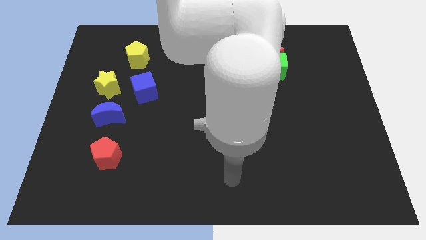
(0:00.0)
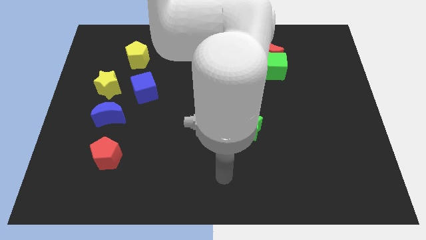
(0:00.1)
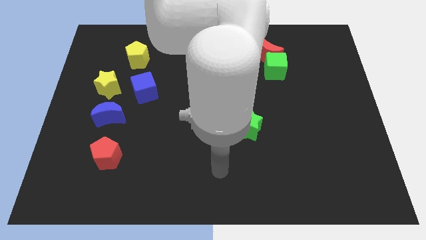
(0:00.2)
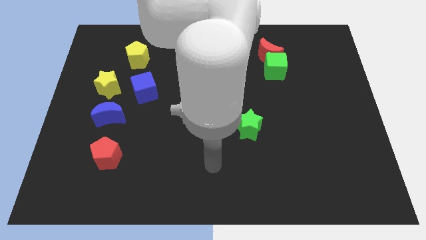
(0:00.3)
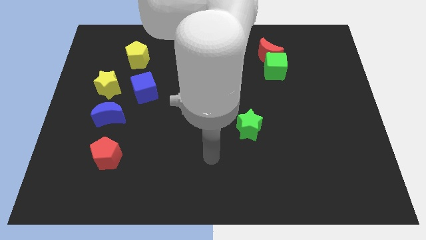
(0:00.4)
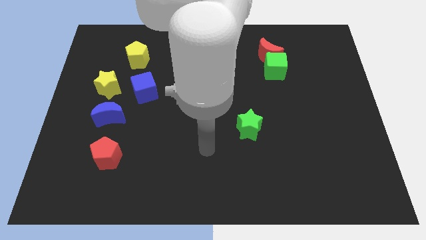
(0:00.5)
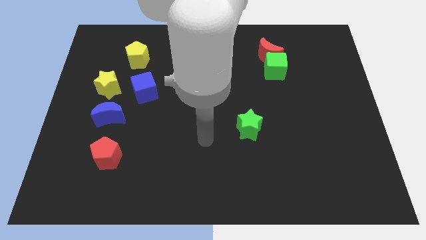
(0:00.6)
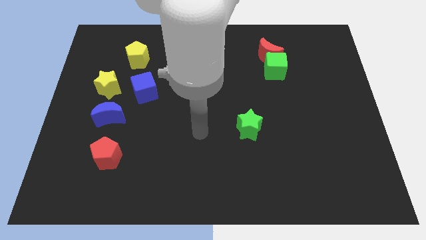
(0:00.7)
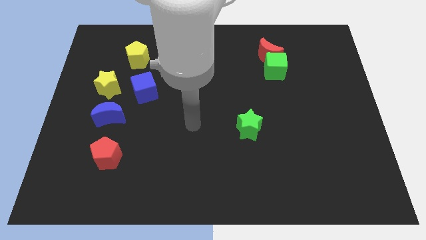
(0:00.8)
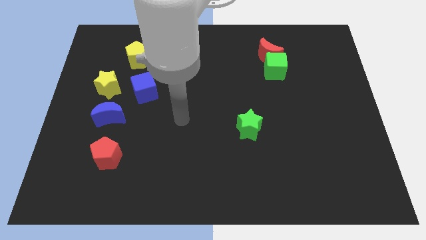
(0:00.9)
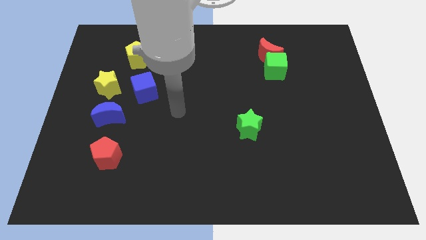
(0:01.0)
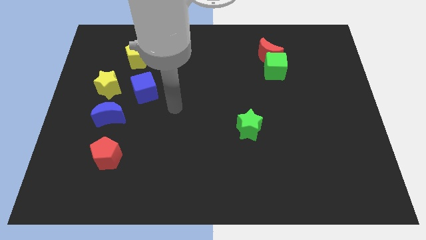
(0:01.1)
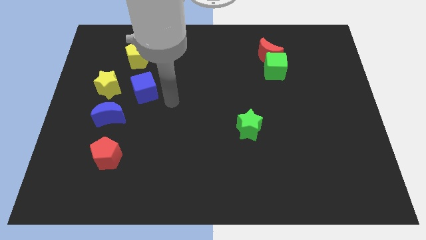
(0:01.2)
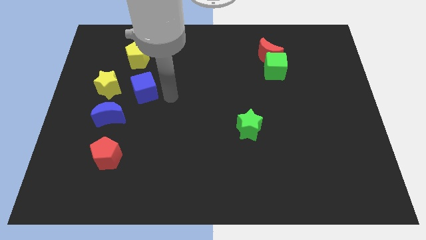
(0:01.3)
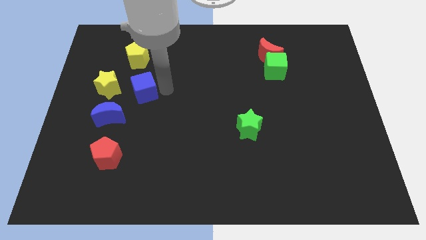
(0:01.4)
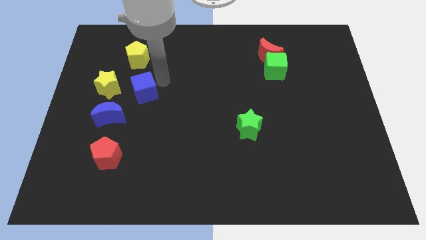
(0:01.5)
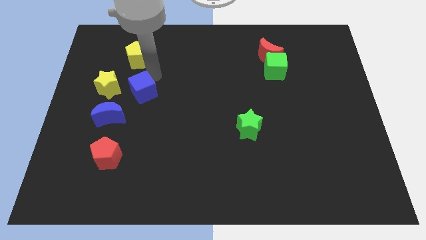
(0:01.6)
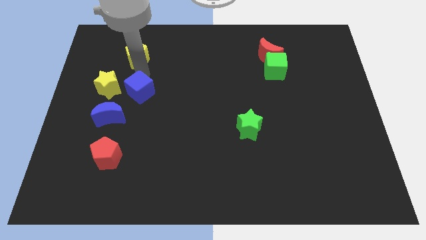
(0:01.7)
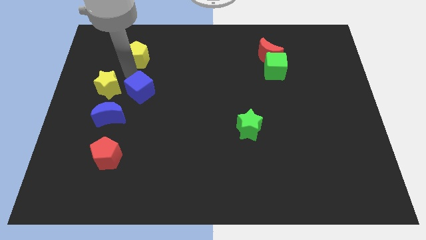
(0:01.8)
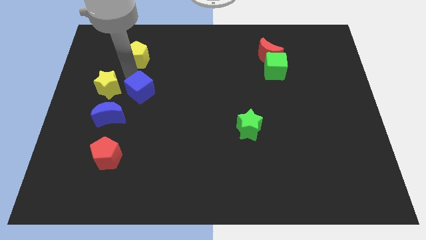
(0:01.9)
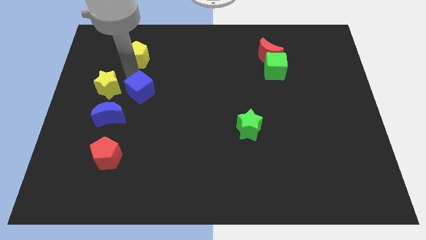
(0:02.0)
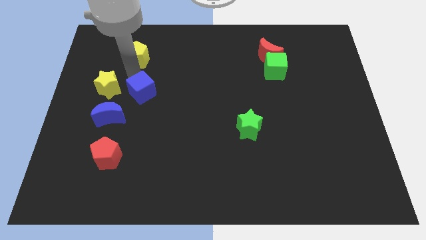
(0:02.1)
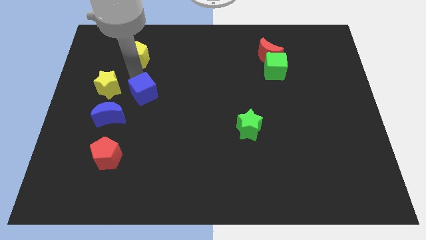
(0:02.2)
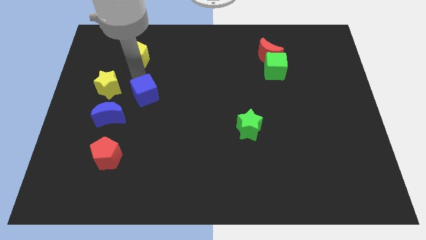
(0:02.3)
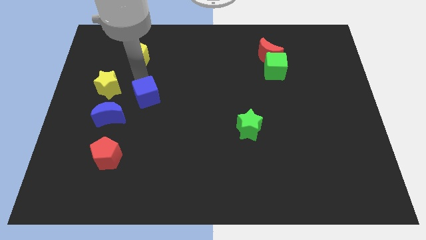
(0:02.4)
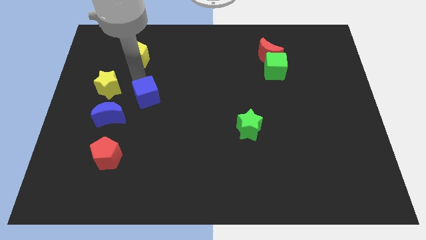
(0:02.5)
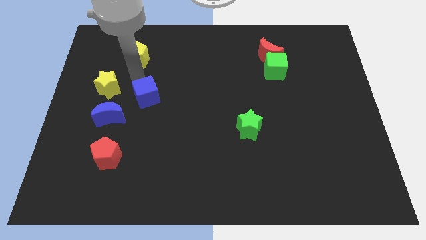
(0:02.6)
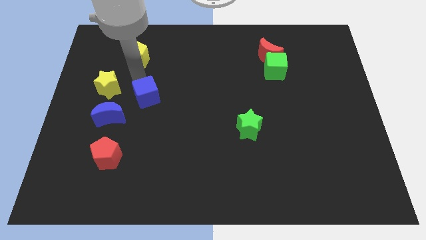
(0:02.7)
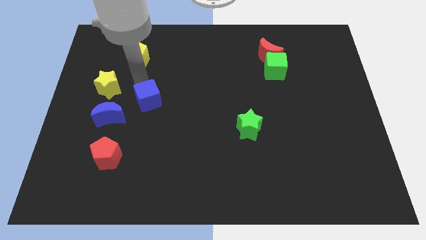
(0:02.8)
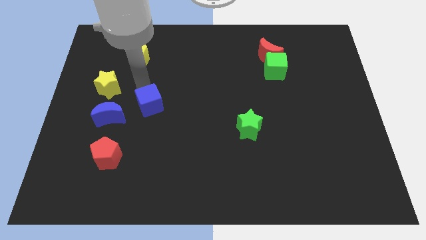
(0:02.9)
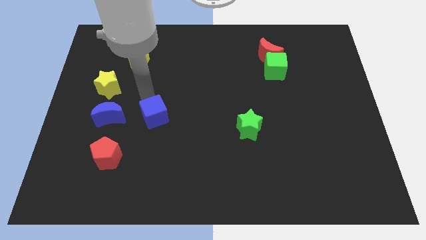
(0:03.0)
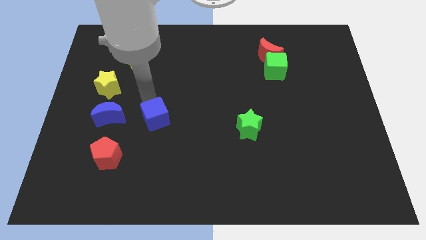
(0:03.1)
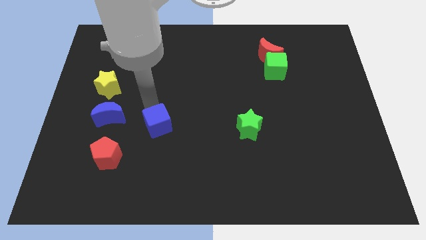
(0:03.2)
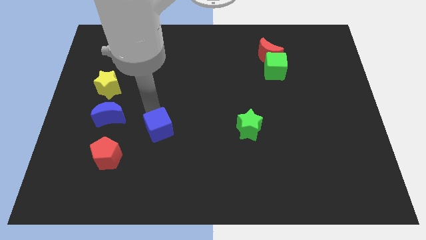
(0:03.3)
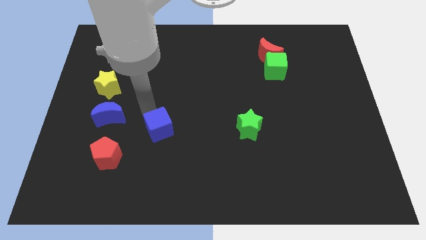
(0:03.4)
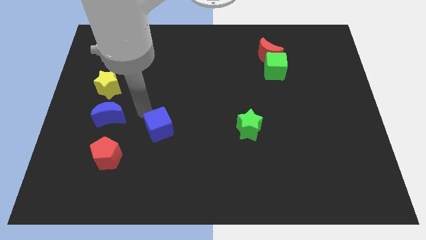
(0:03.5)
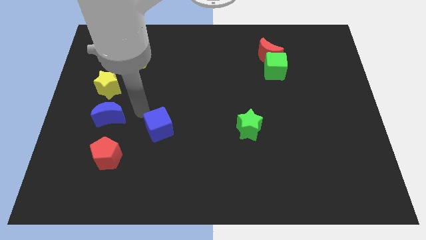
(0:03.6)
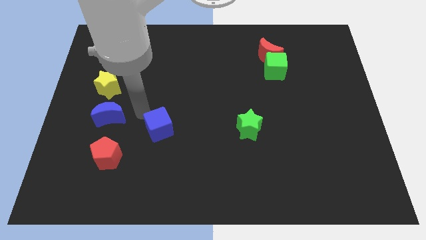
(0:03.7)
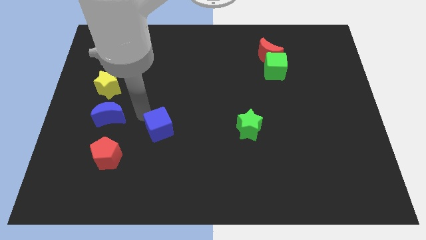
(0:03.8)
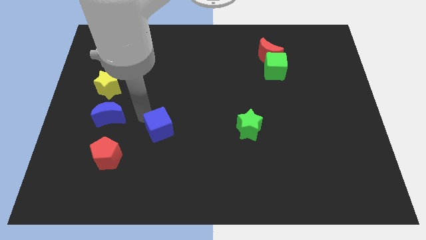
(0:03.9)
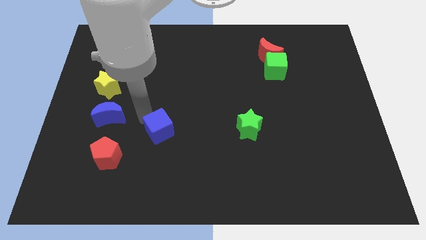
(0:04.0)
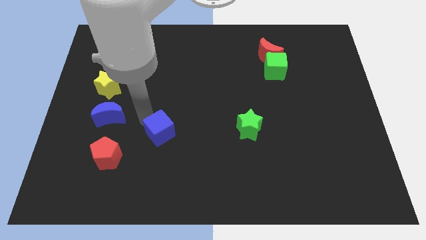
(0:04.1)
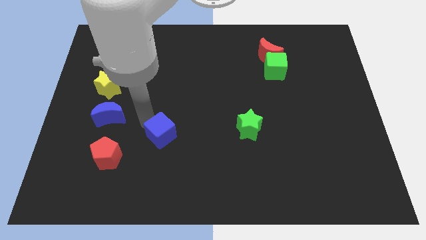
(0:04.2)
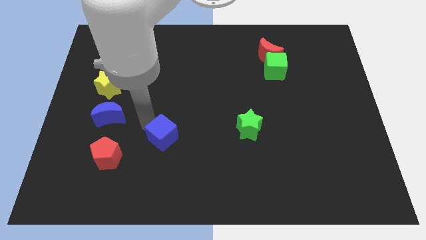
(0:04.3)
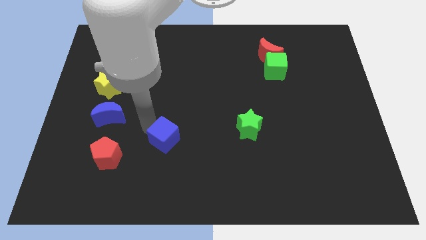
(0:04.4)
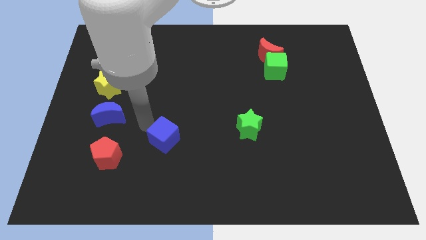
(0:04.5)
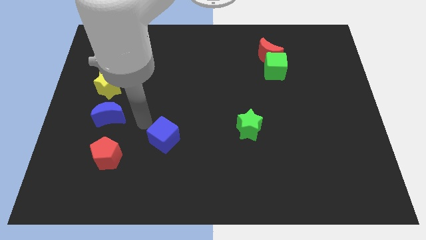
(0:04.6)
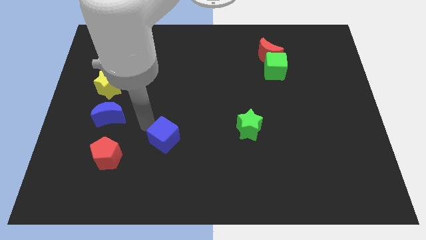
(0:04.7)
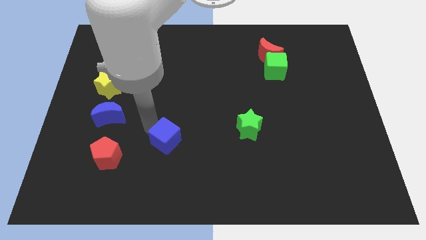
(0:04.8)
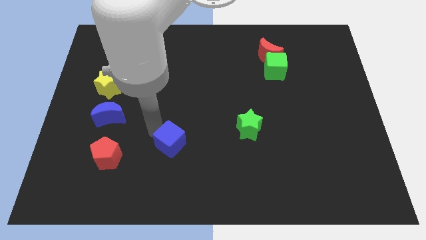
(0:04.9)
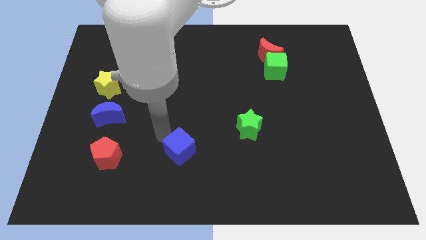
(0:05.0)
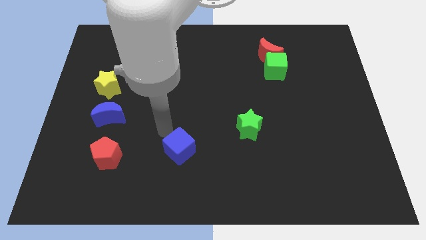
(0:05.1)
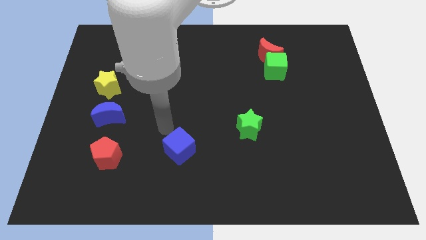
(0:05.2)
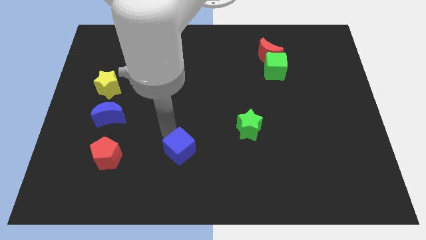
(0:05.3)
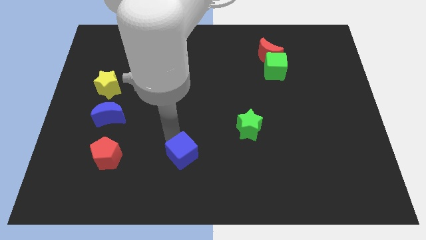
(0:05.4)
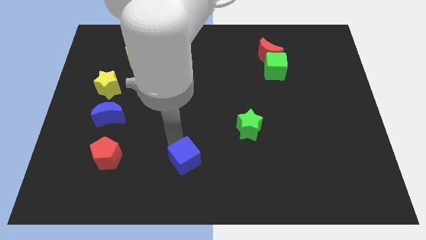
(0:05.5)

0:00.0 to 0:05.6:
put the blue cube to the bottom side

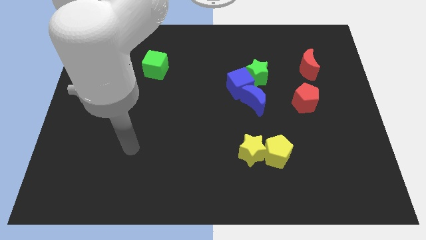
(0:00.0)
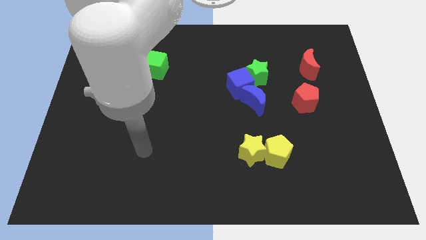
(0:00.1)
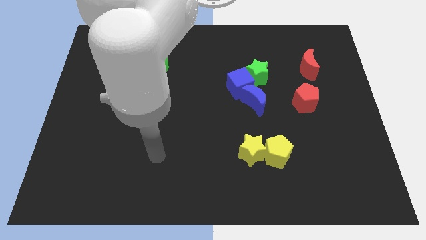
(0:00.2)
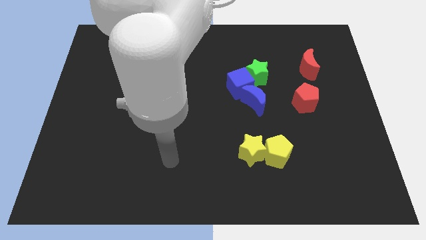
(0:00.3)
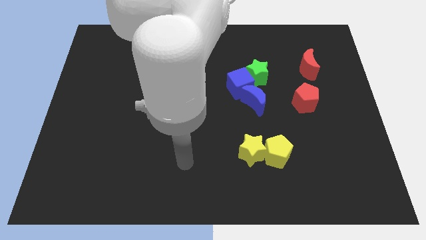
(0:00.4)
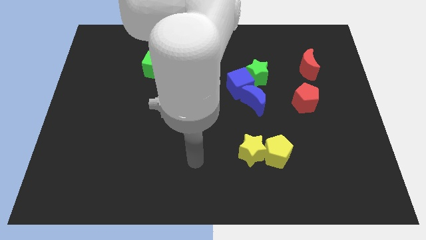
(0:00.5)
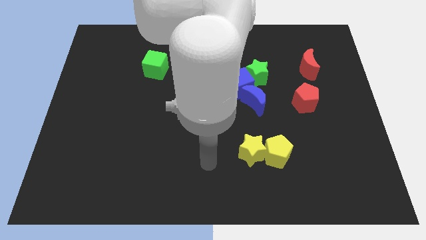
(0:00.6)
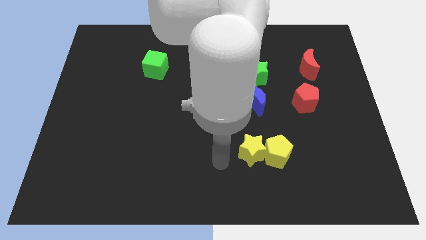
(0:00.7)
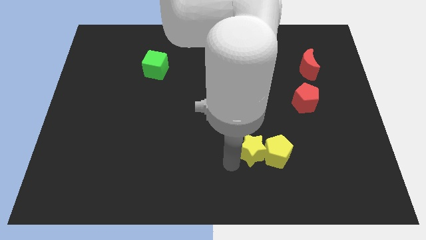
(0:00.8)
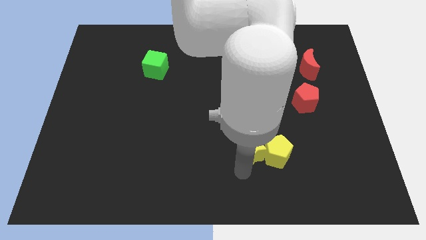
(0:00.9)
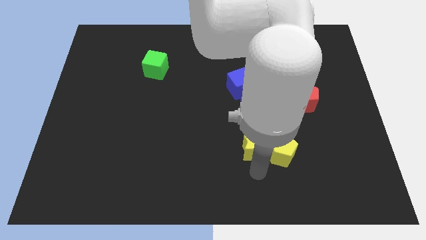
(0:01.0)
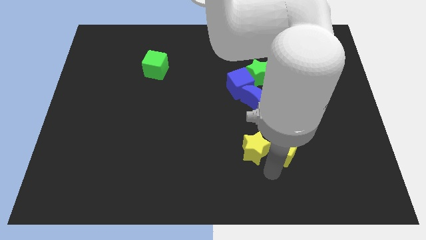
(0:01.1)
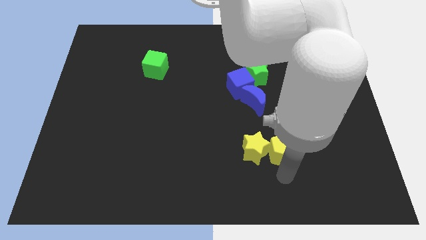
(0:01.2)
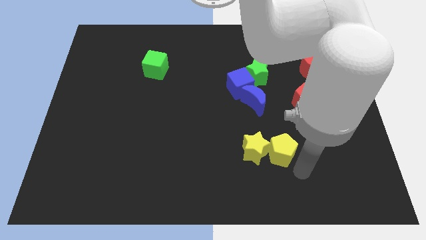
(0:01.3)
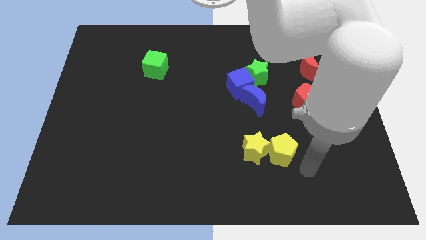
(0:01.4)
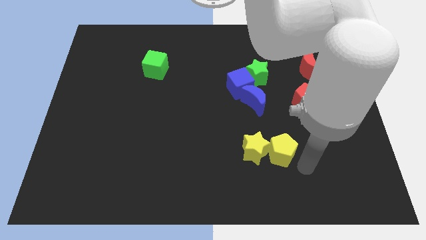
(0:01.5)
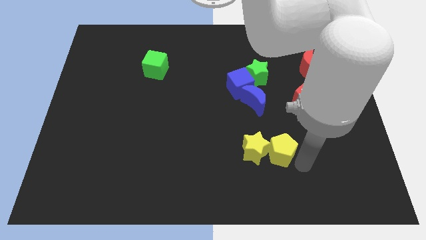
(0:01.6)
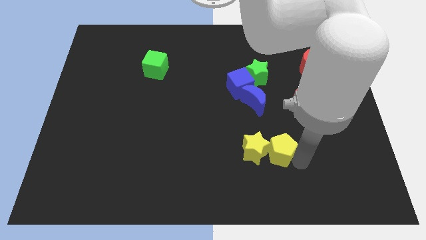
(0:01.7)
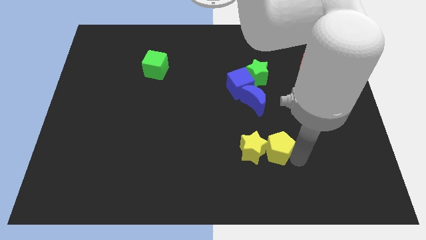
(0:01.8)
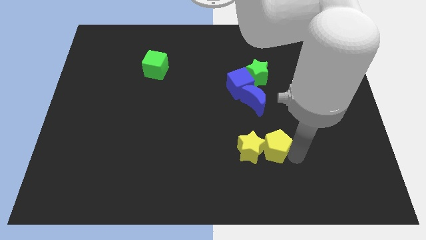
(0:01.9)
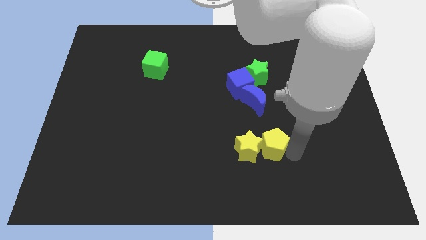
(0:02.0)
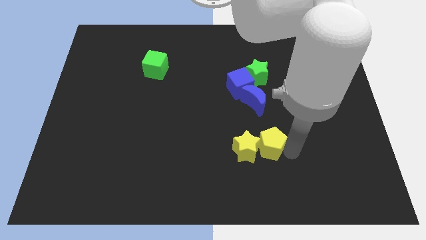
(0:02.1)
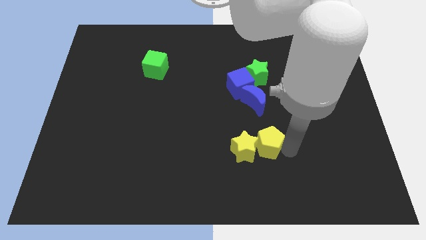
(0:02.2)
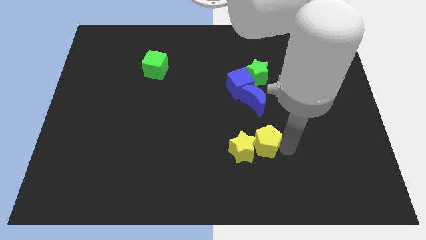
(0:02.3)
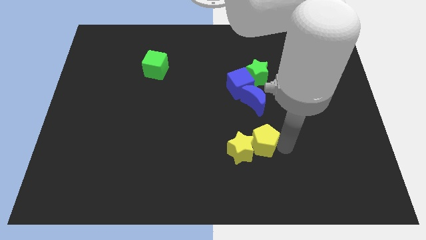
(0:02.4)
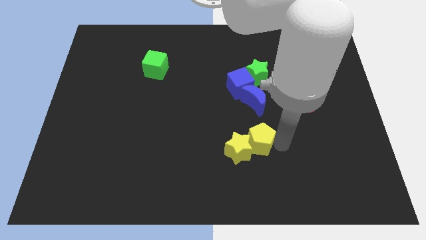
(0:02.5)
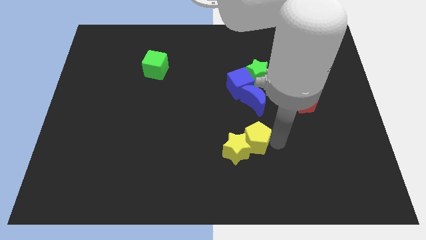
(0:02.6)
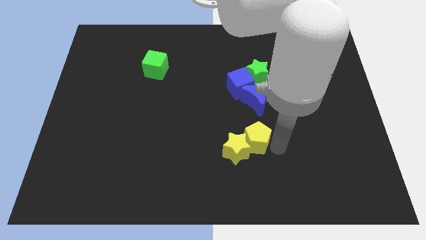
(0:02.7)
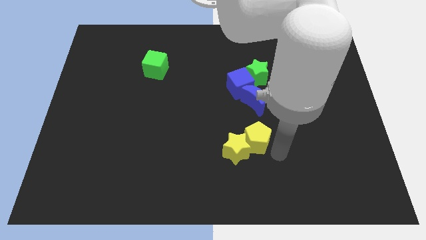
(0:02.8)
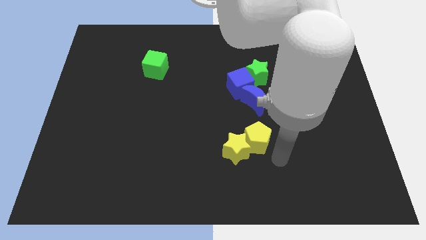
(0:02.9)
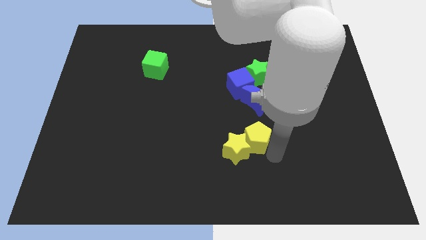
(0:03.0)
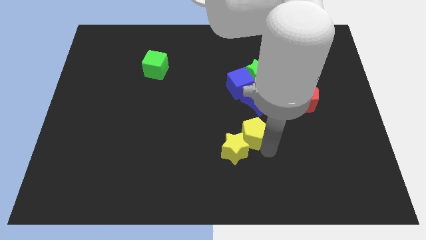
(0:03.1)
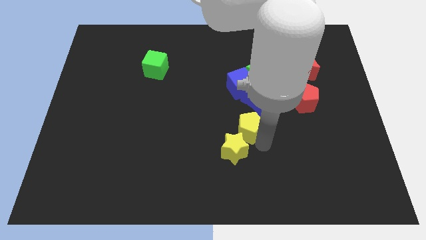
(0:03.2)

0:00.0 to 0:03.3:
put the yellow pentagon to the middle
